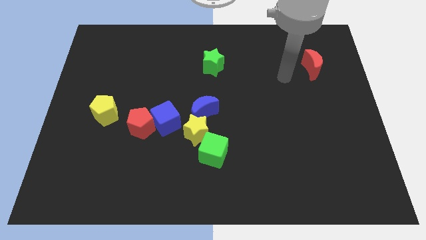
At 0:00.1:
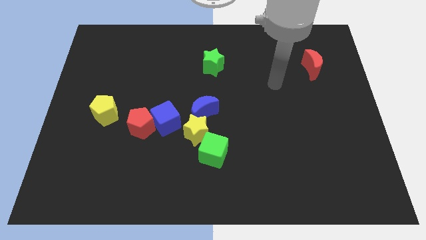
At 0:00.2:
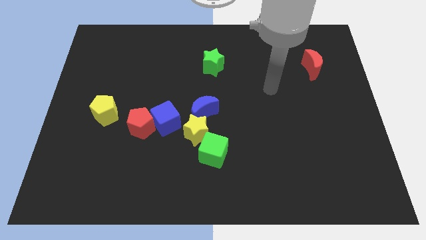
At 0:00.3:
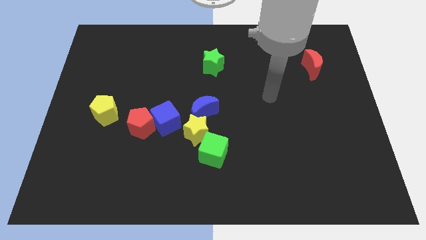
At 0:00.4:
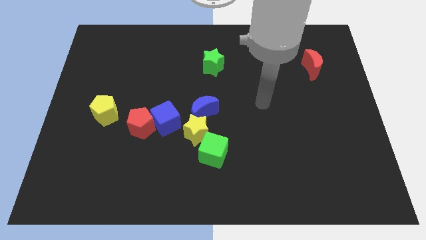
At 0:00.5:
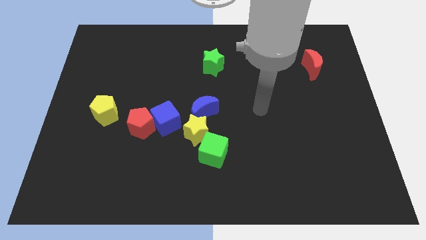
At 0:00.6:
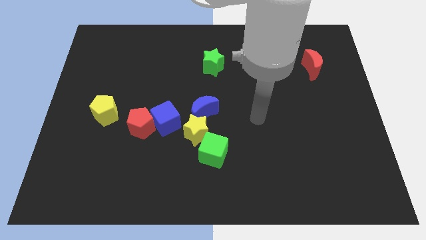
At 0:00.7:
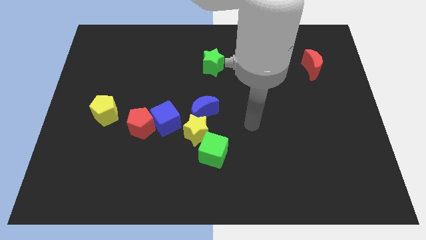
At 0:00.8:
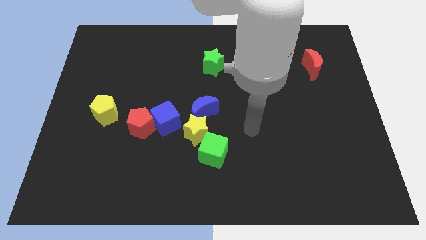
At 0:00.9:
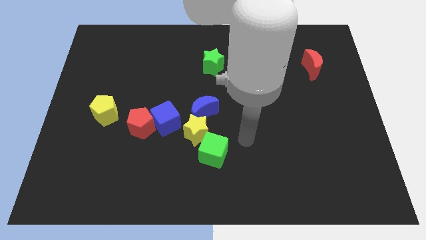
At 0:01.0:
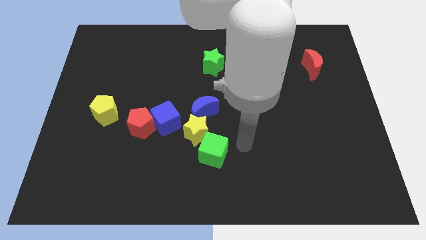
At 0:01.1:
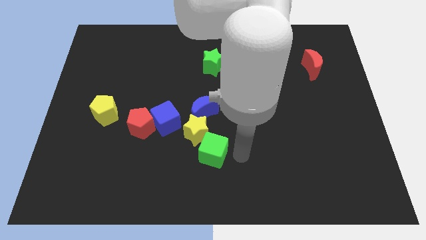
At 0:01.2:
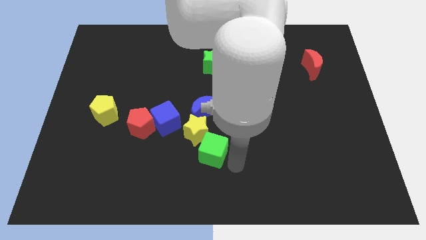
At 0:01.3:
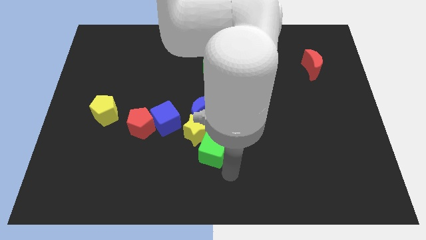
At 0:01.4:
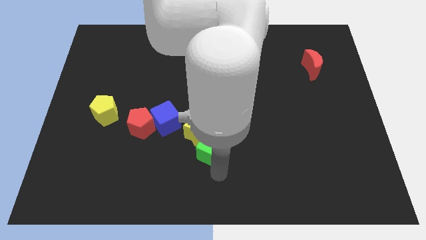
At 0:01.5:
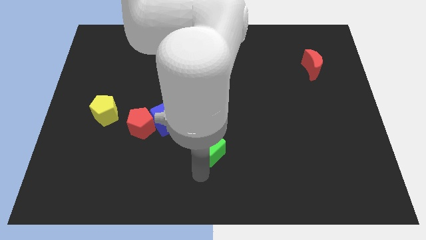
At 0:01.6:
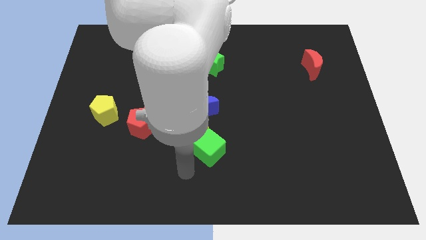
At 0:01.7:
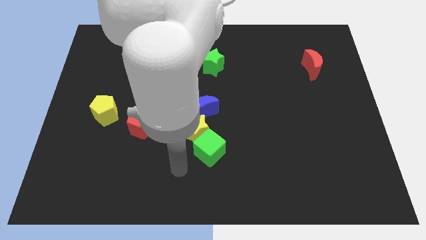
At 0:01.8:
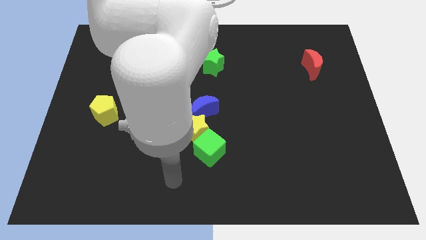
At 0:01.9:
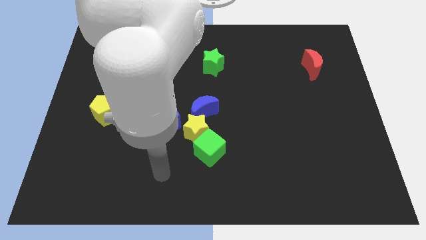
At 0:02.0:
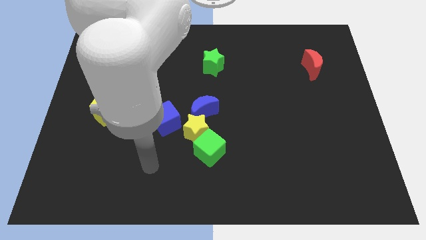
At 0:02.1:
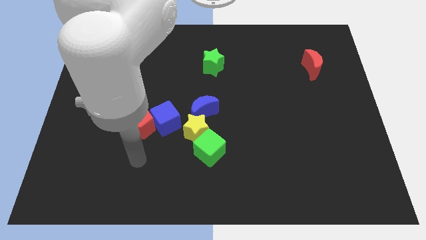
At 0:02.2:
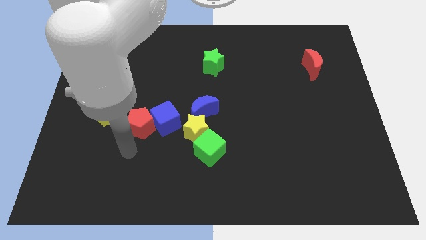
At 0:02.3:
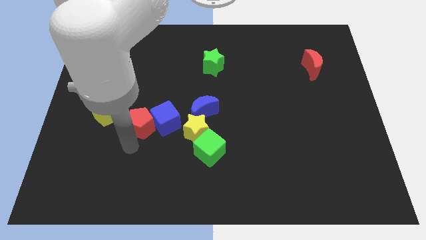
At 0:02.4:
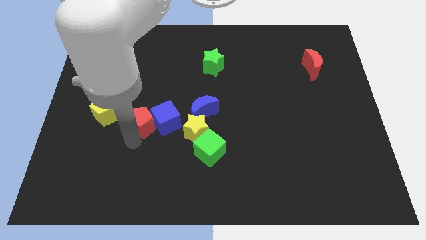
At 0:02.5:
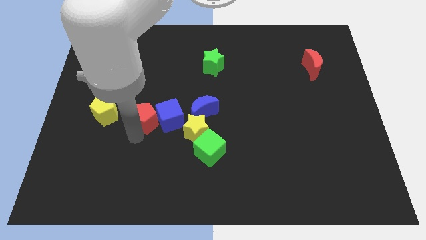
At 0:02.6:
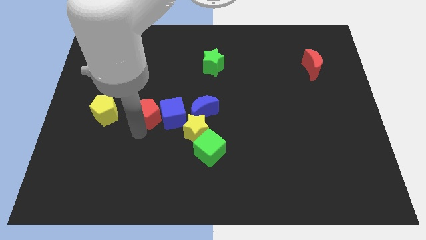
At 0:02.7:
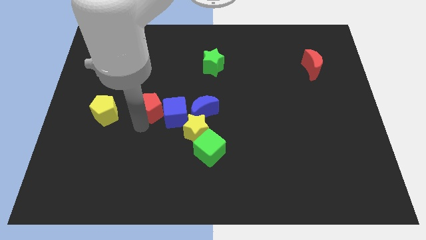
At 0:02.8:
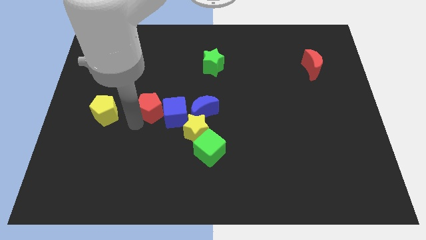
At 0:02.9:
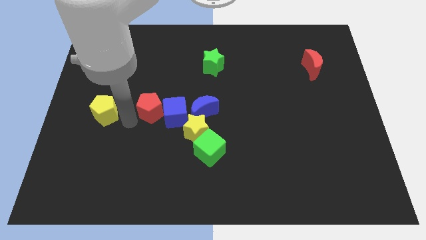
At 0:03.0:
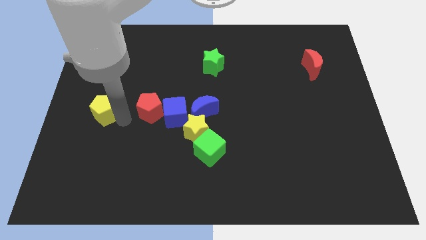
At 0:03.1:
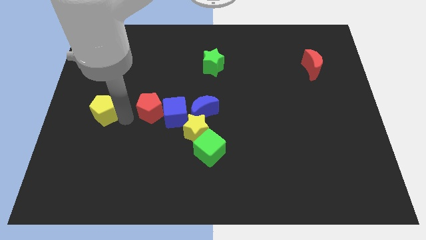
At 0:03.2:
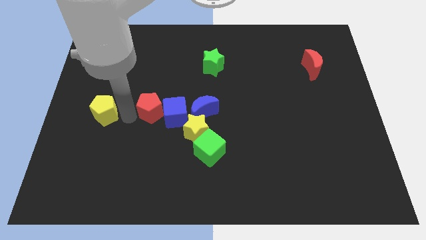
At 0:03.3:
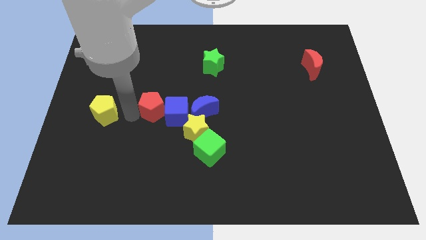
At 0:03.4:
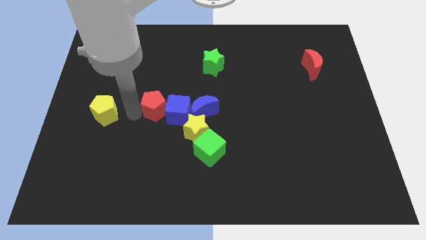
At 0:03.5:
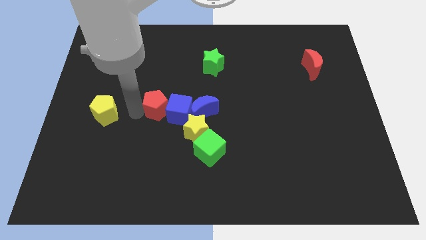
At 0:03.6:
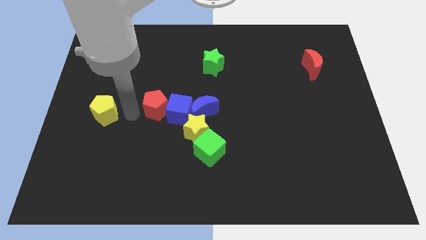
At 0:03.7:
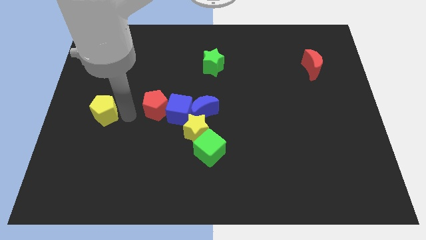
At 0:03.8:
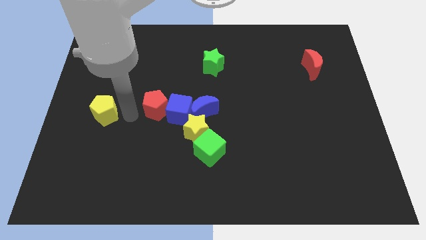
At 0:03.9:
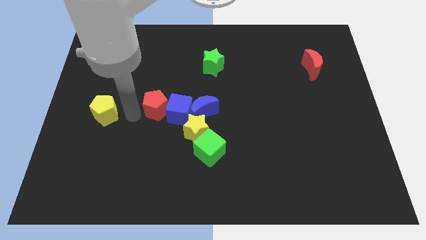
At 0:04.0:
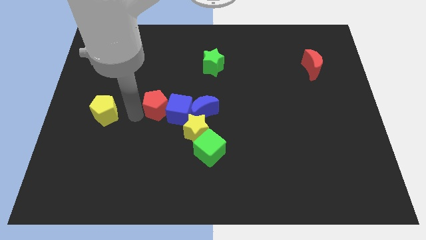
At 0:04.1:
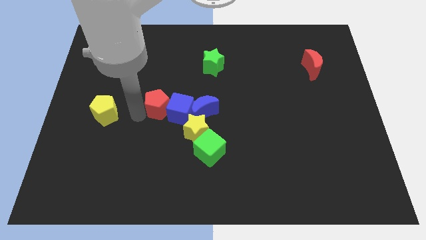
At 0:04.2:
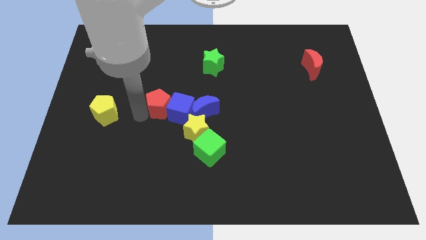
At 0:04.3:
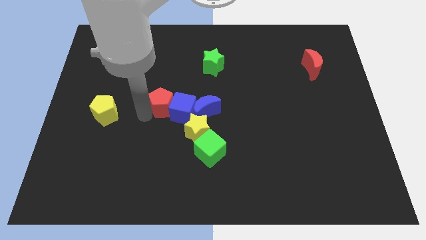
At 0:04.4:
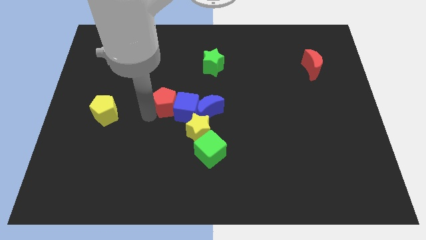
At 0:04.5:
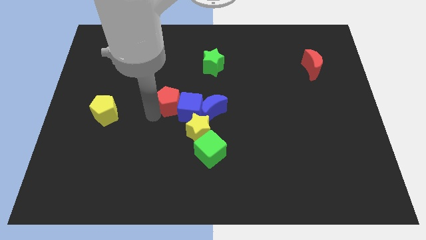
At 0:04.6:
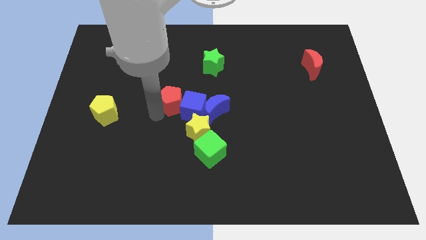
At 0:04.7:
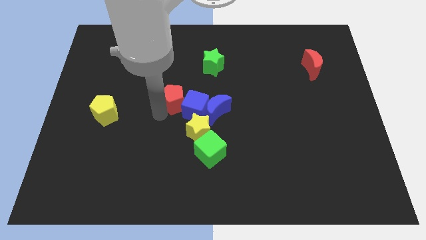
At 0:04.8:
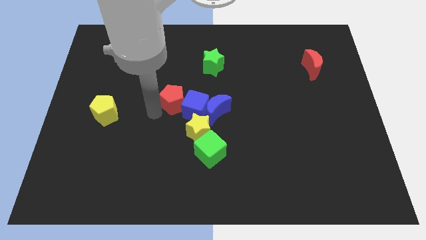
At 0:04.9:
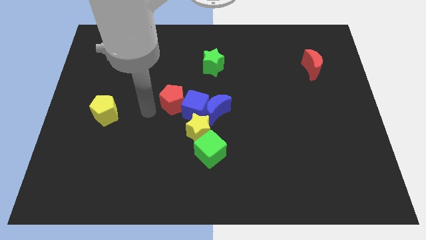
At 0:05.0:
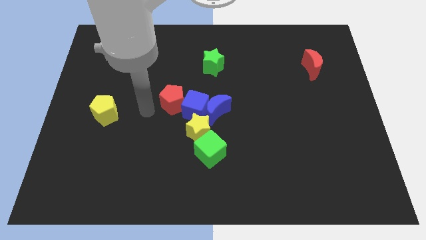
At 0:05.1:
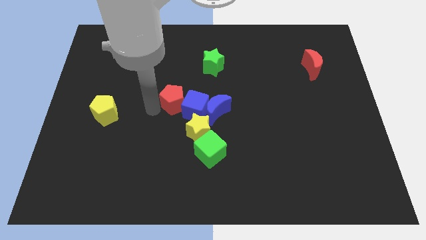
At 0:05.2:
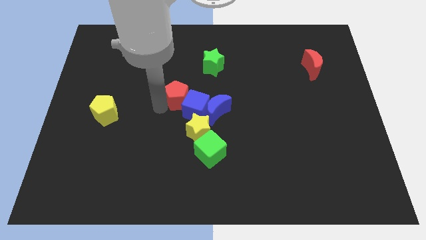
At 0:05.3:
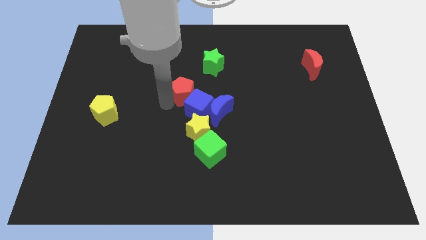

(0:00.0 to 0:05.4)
move the red pentagon above the yellow star
